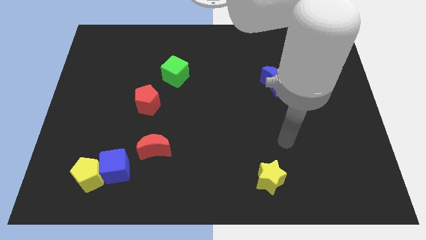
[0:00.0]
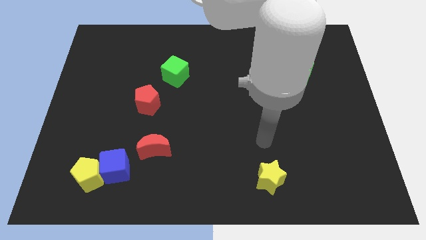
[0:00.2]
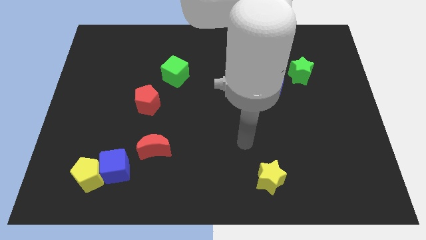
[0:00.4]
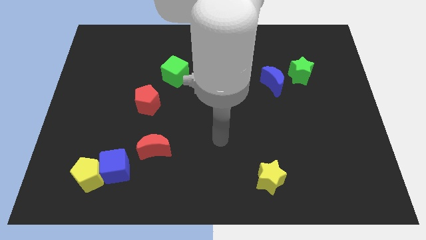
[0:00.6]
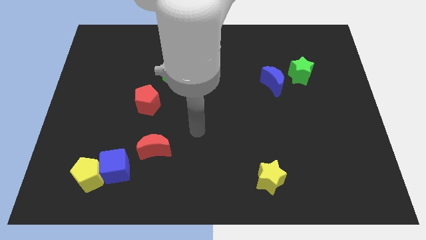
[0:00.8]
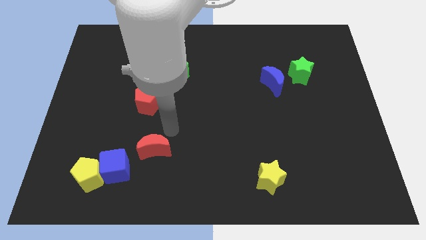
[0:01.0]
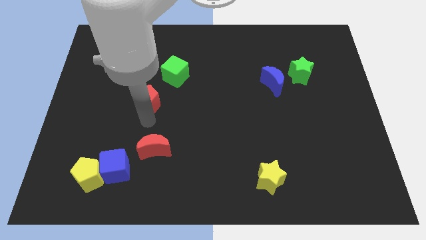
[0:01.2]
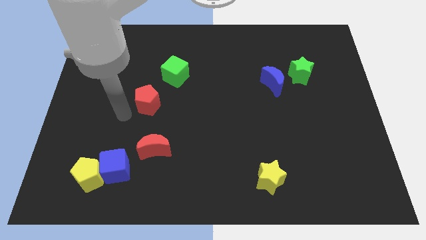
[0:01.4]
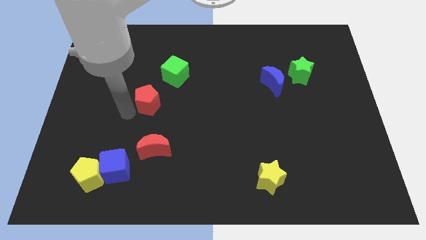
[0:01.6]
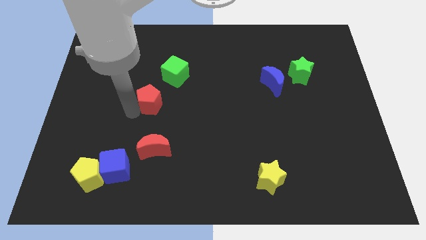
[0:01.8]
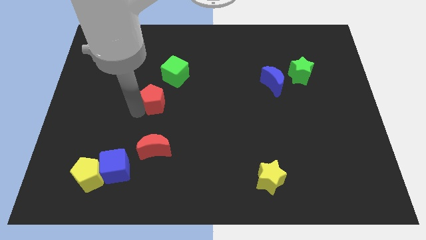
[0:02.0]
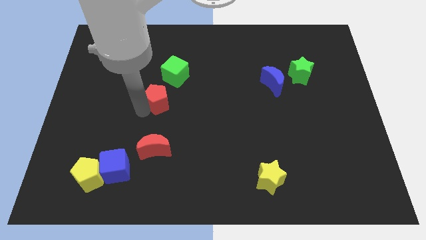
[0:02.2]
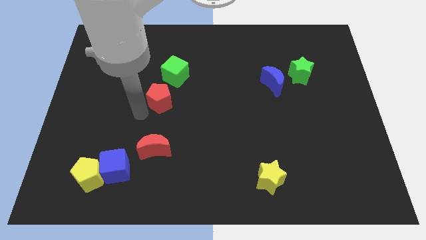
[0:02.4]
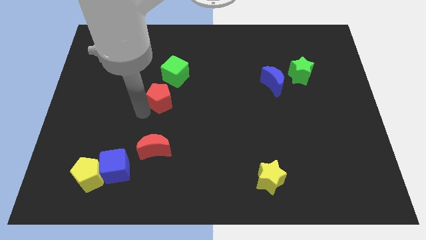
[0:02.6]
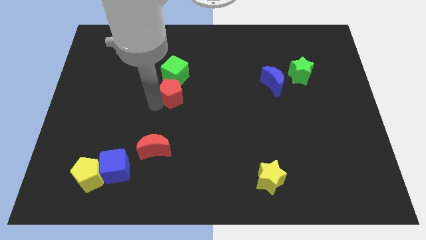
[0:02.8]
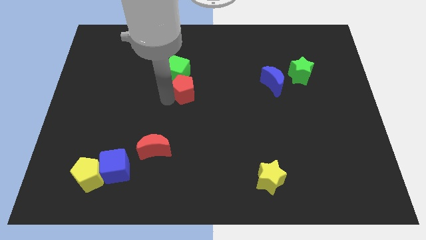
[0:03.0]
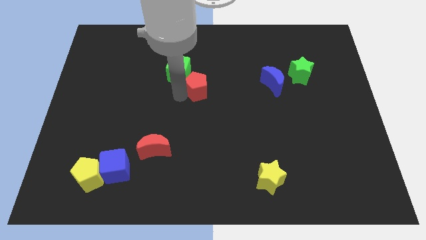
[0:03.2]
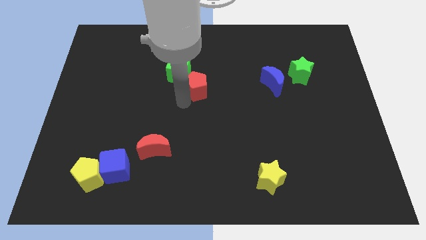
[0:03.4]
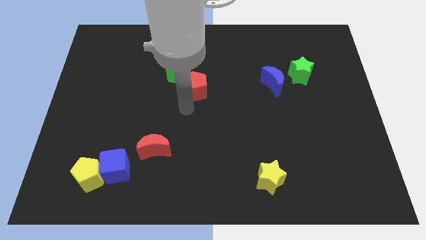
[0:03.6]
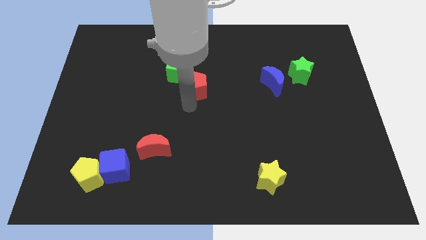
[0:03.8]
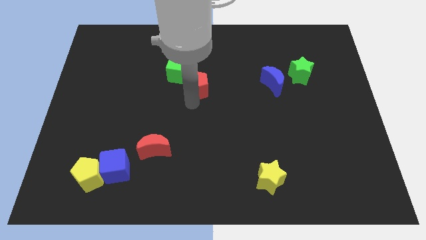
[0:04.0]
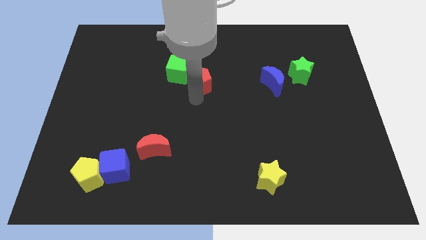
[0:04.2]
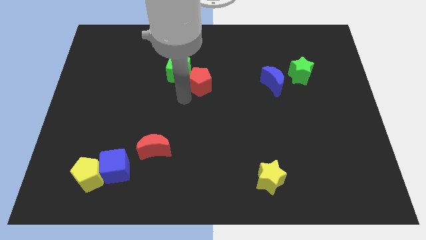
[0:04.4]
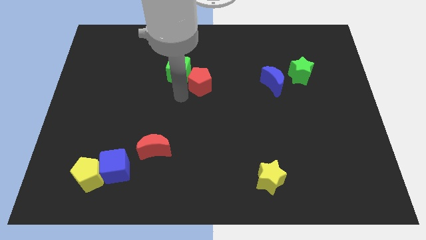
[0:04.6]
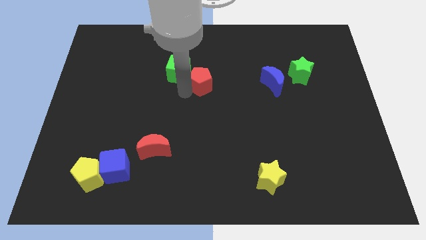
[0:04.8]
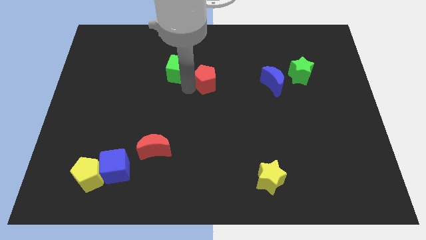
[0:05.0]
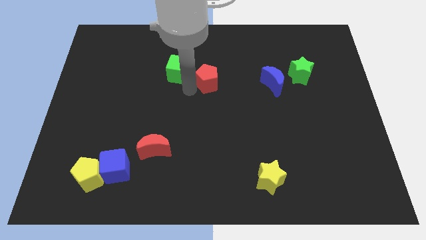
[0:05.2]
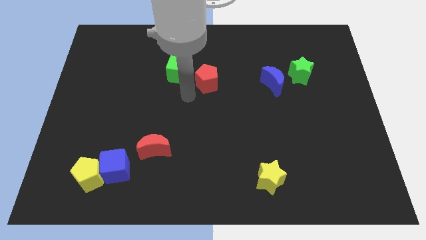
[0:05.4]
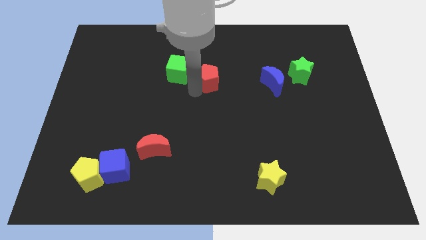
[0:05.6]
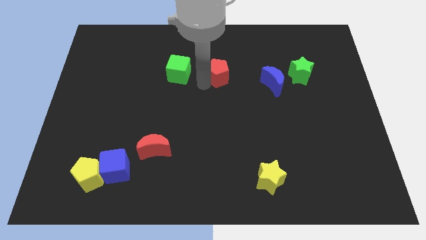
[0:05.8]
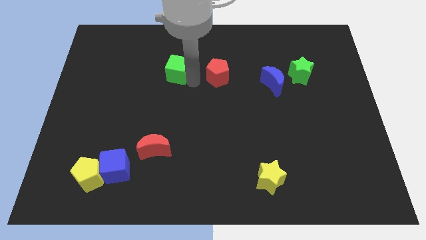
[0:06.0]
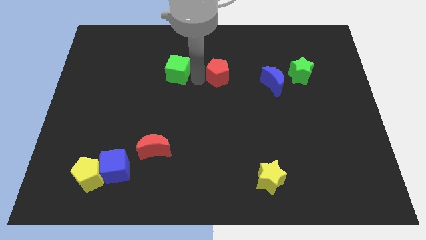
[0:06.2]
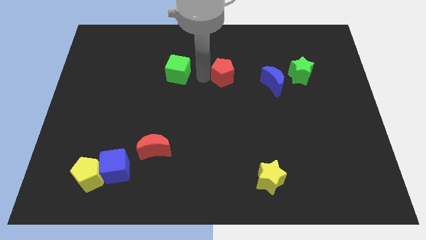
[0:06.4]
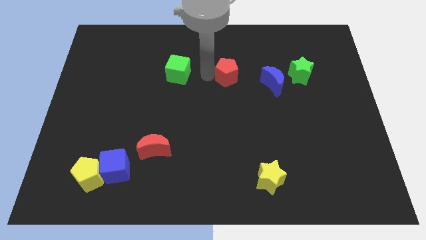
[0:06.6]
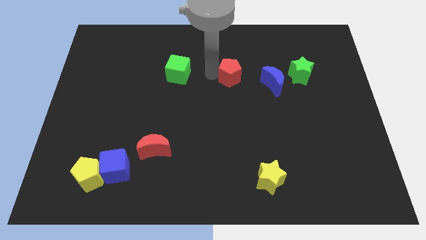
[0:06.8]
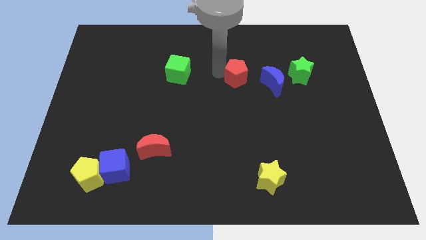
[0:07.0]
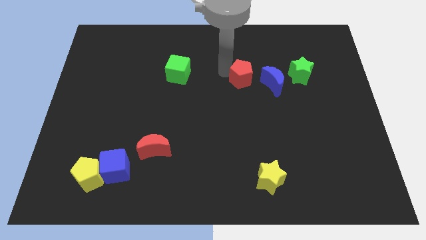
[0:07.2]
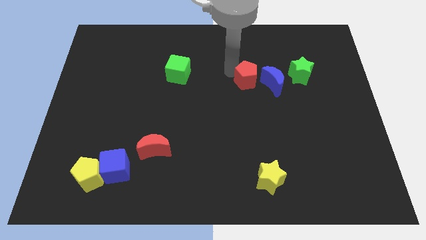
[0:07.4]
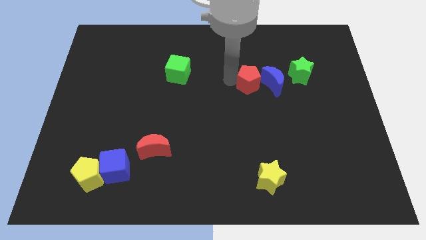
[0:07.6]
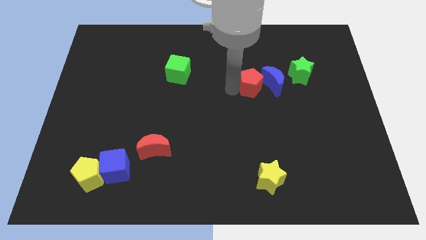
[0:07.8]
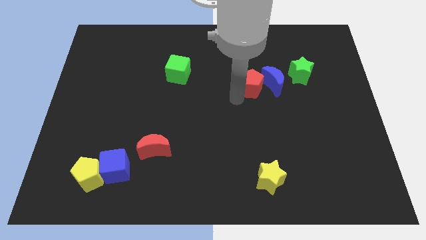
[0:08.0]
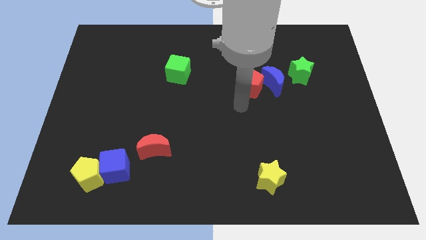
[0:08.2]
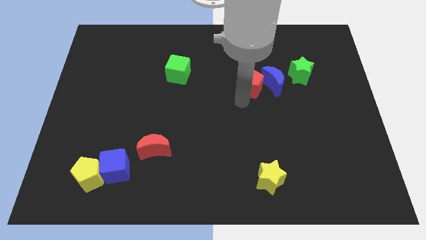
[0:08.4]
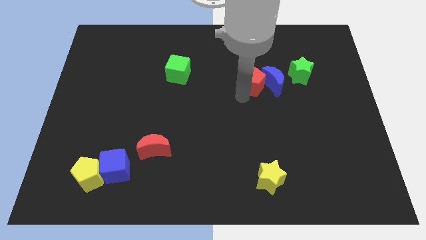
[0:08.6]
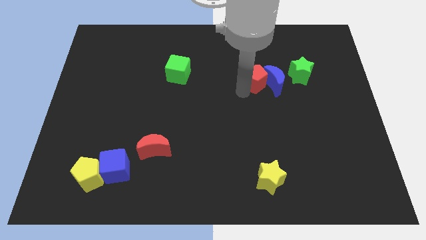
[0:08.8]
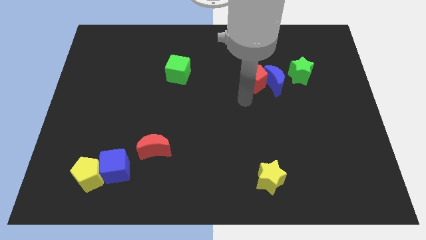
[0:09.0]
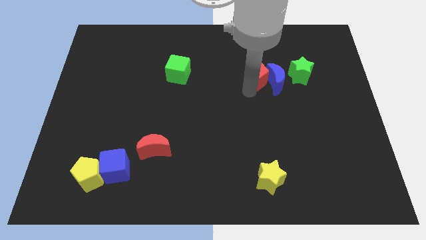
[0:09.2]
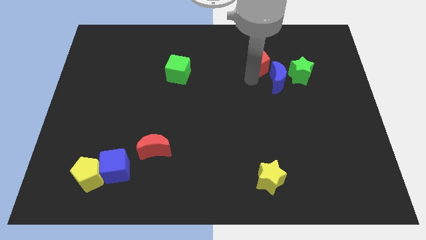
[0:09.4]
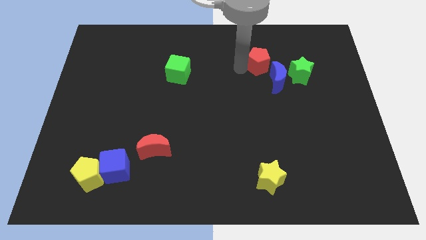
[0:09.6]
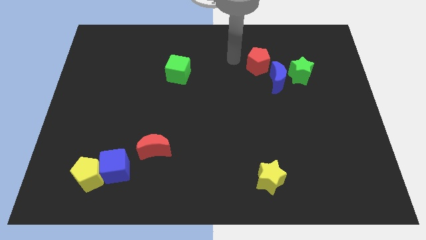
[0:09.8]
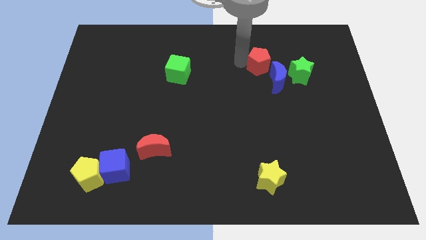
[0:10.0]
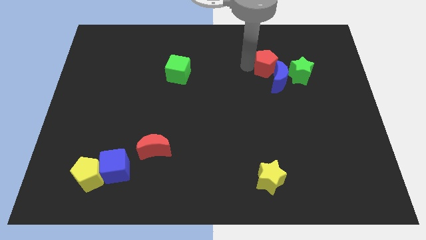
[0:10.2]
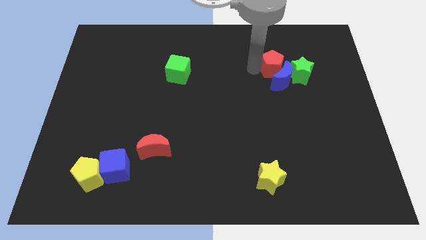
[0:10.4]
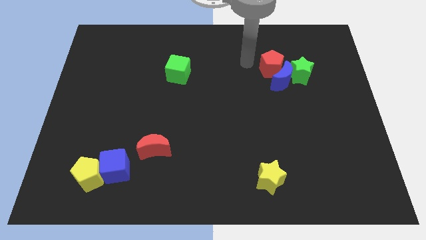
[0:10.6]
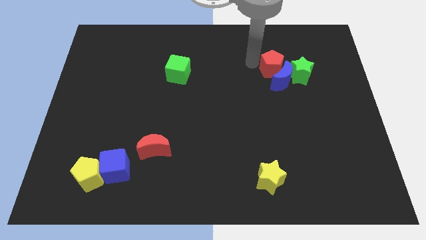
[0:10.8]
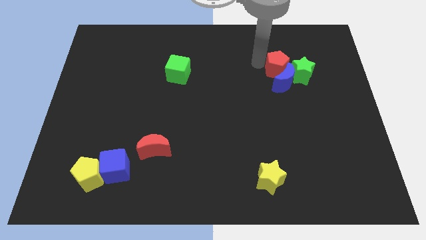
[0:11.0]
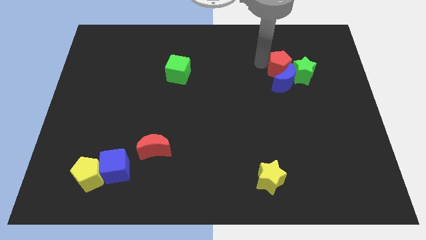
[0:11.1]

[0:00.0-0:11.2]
move the red pentagon towards the green star

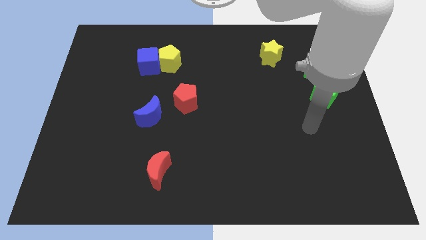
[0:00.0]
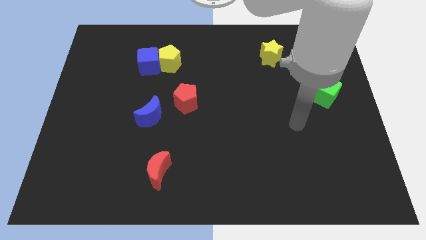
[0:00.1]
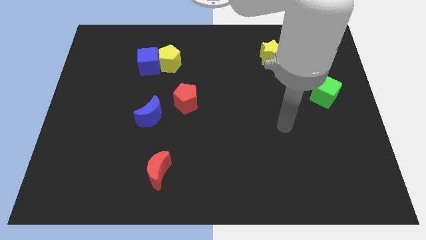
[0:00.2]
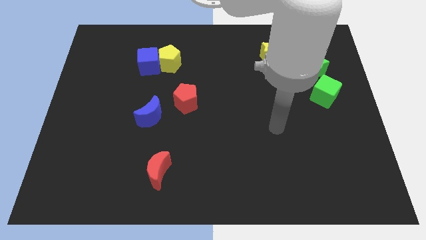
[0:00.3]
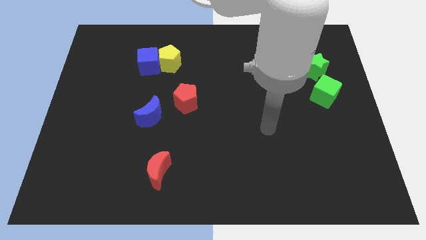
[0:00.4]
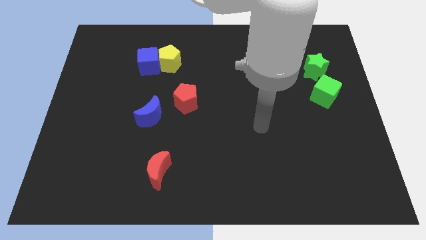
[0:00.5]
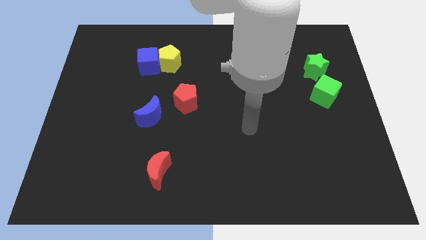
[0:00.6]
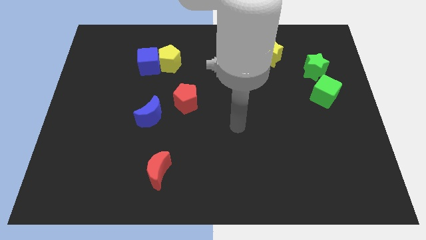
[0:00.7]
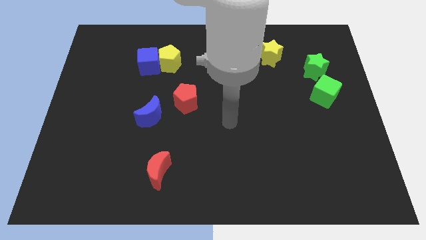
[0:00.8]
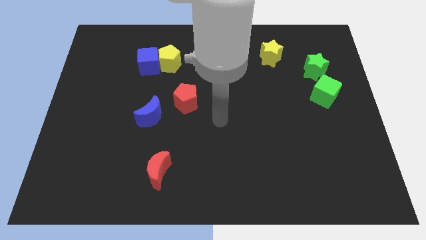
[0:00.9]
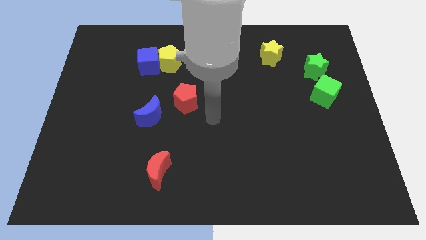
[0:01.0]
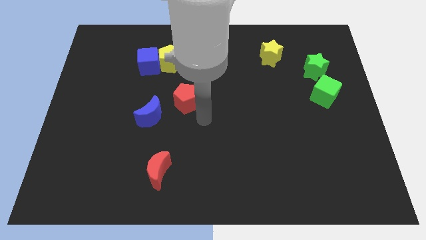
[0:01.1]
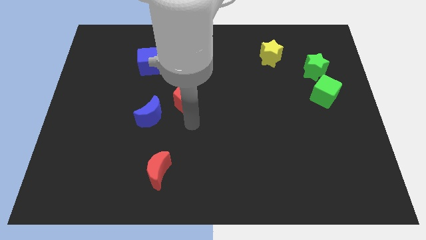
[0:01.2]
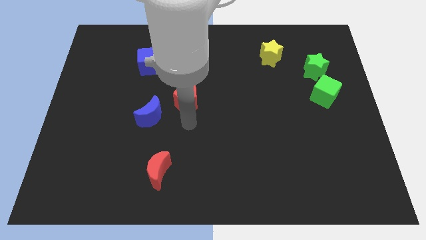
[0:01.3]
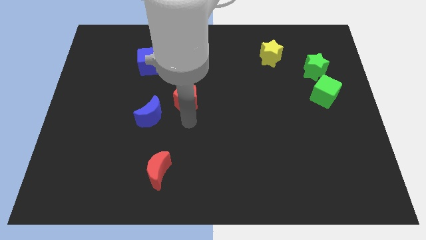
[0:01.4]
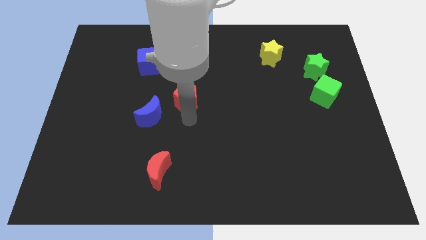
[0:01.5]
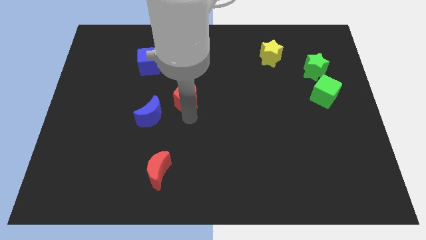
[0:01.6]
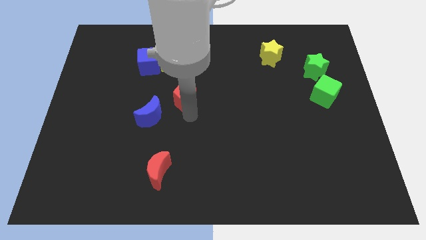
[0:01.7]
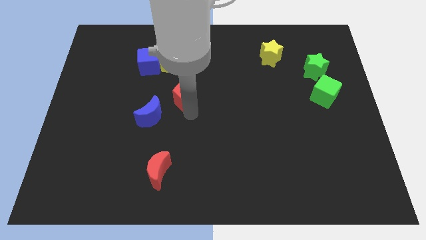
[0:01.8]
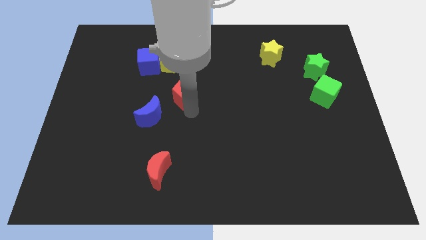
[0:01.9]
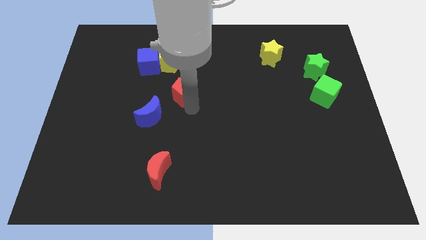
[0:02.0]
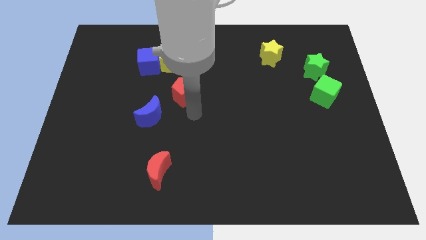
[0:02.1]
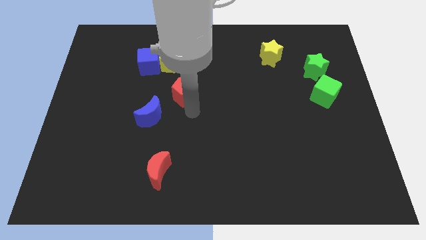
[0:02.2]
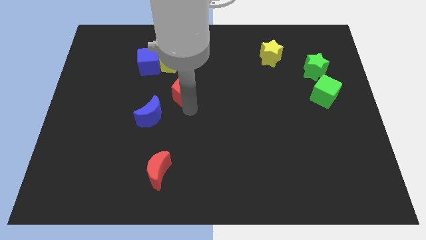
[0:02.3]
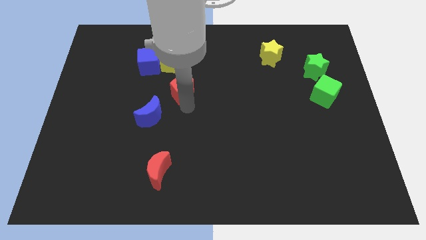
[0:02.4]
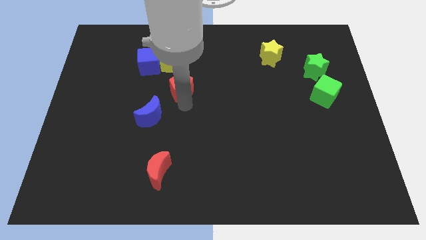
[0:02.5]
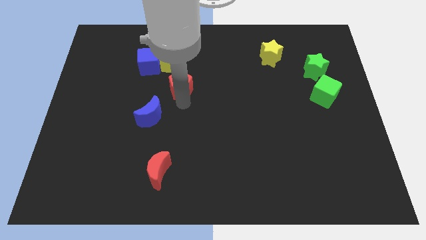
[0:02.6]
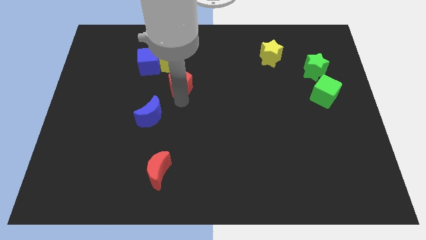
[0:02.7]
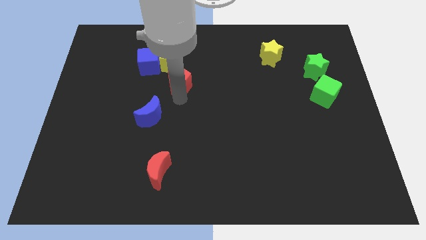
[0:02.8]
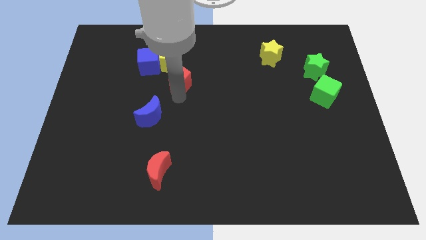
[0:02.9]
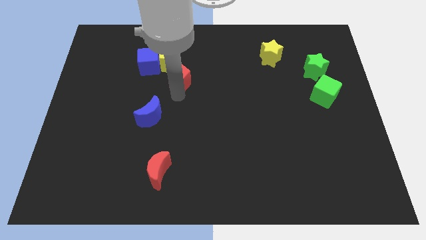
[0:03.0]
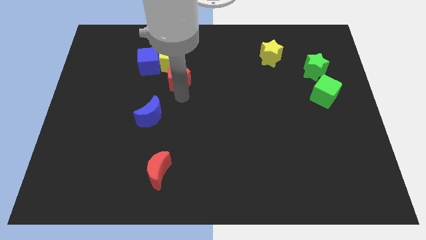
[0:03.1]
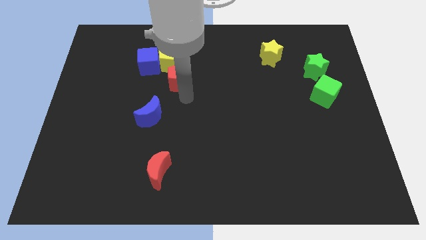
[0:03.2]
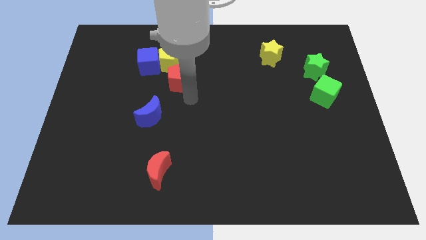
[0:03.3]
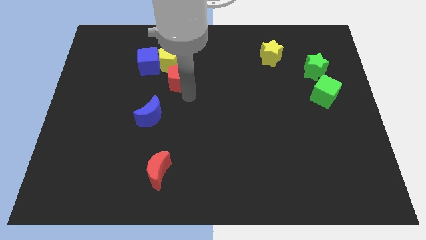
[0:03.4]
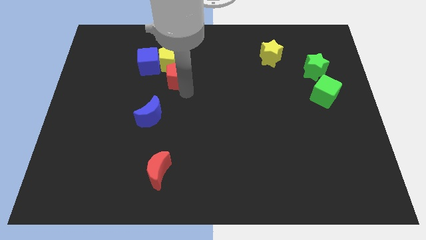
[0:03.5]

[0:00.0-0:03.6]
put the red pentagon close to the yellow pentagon
